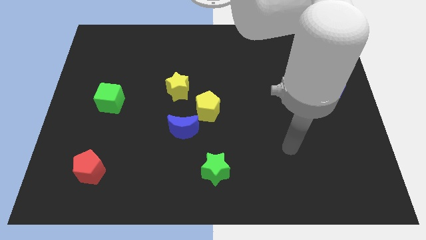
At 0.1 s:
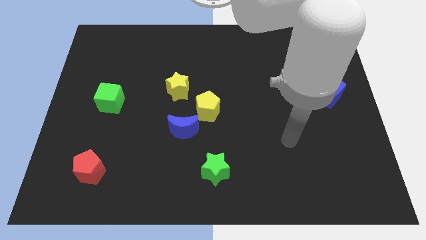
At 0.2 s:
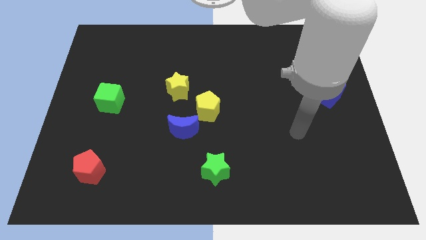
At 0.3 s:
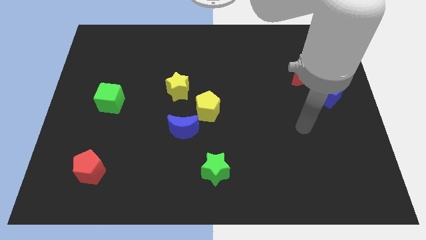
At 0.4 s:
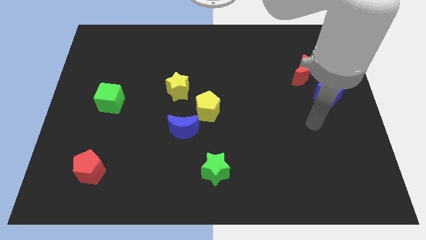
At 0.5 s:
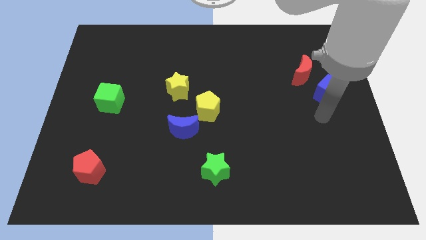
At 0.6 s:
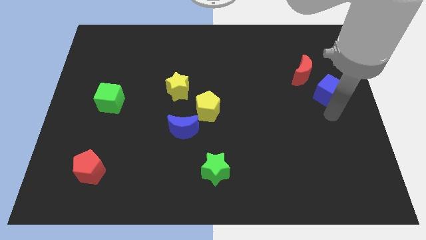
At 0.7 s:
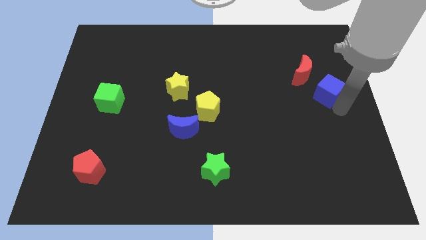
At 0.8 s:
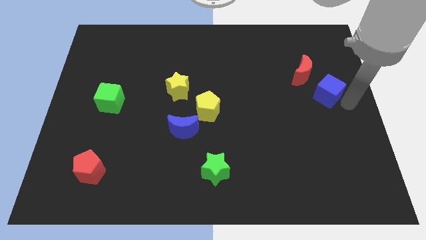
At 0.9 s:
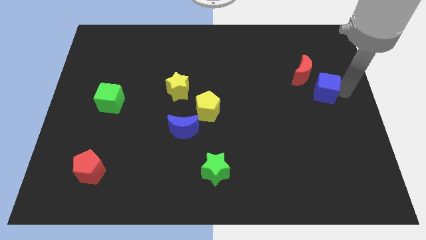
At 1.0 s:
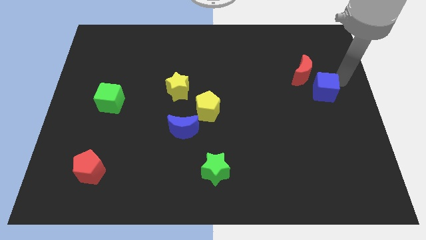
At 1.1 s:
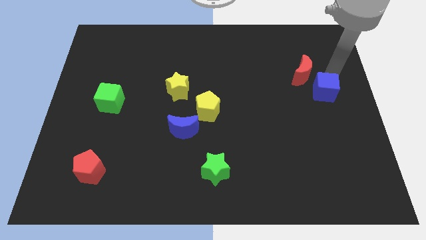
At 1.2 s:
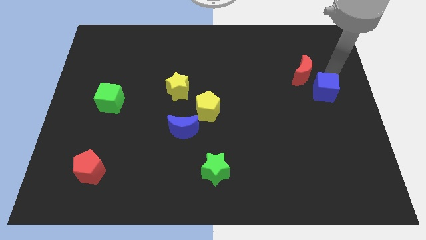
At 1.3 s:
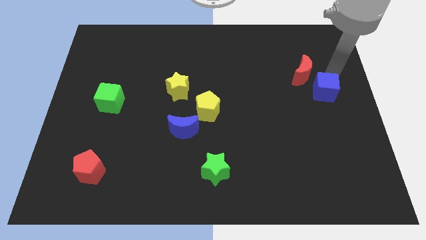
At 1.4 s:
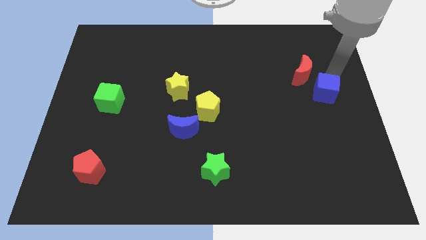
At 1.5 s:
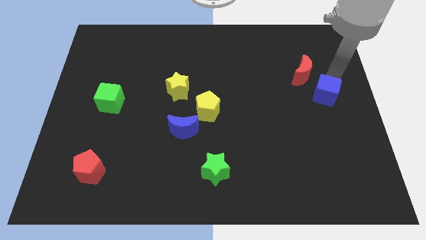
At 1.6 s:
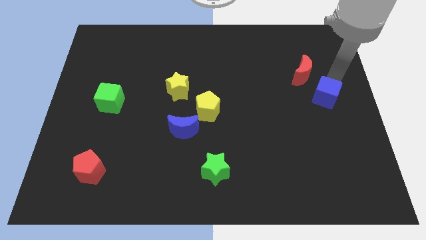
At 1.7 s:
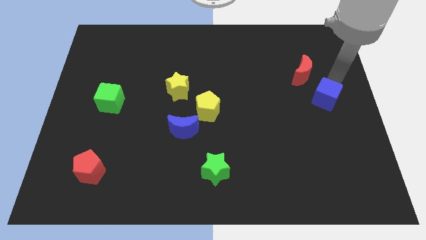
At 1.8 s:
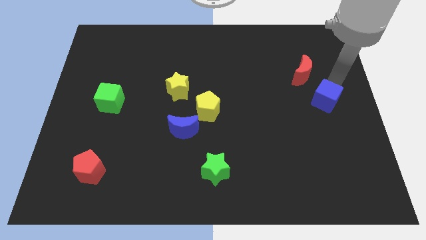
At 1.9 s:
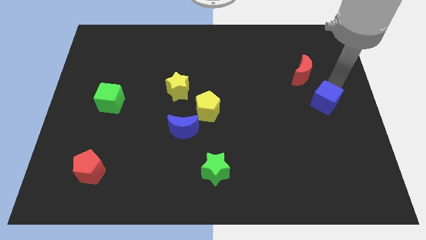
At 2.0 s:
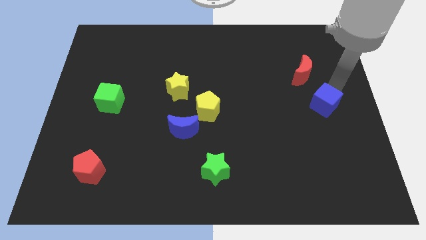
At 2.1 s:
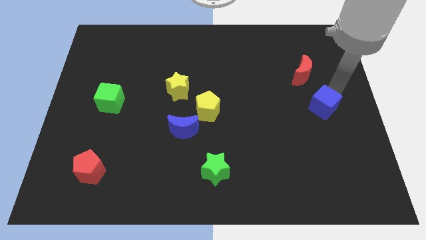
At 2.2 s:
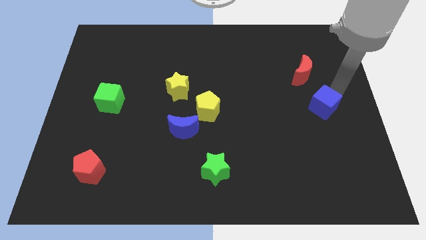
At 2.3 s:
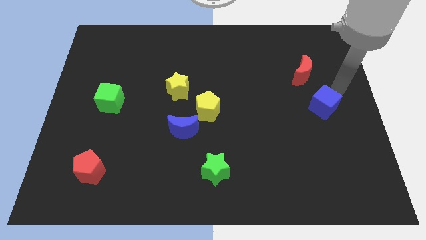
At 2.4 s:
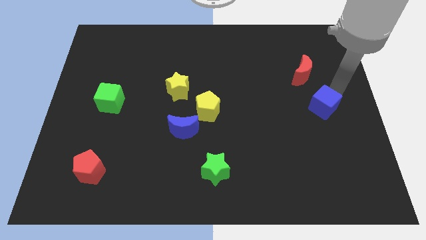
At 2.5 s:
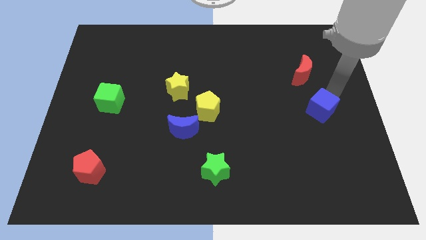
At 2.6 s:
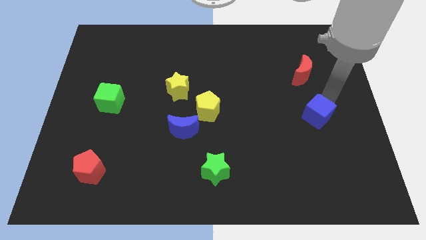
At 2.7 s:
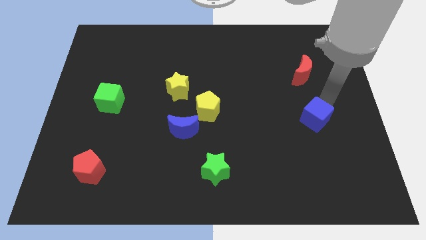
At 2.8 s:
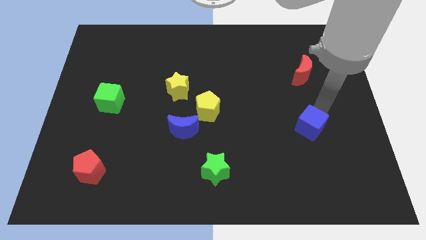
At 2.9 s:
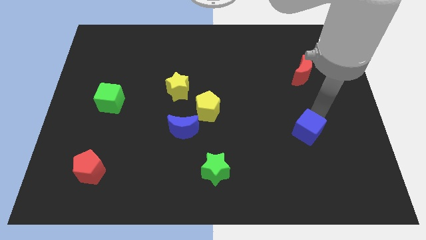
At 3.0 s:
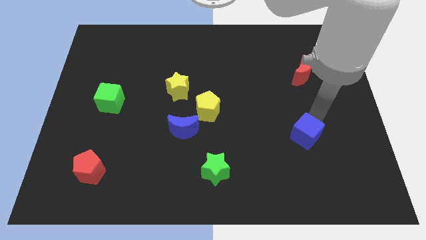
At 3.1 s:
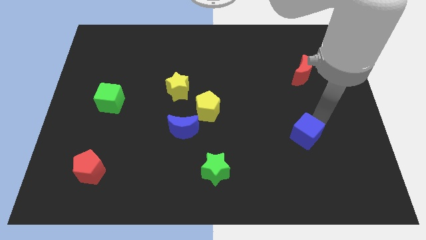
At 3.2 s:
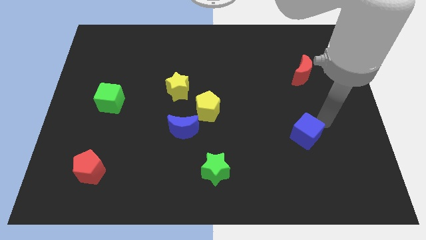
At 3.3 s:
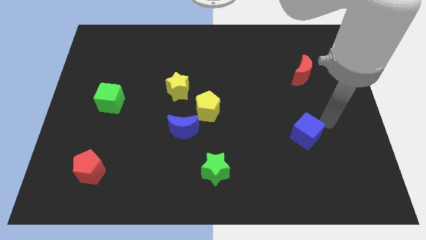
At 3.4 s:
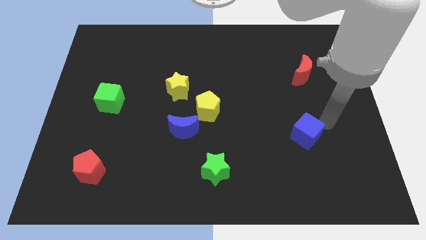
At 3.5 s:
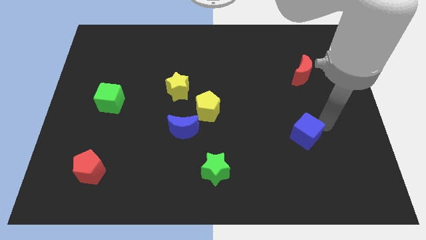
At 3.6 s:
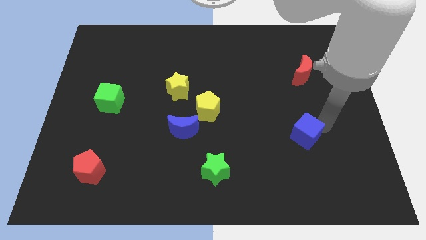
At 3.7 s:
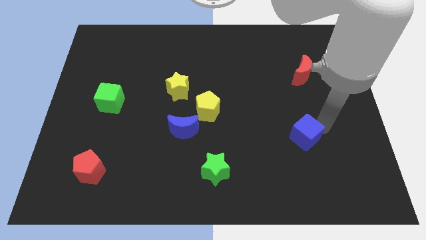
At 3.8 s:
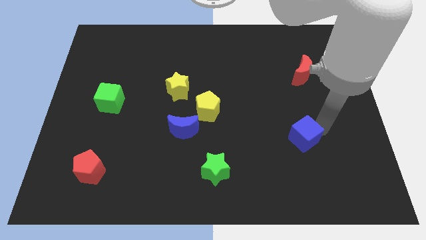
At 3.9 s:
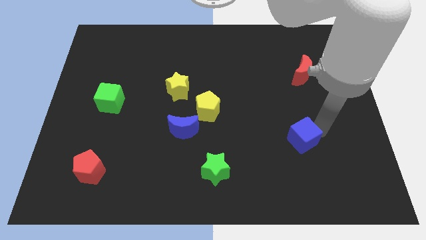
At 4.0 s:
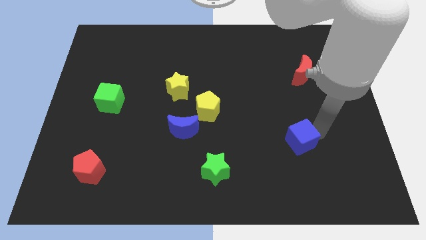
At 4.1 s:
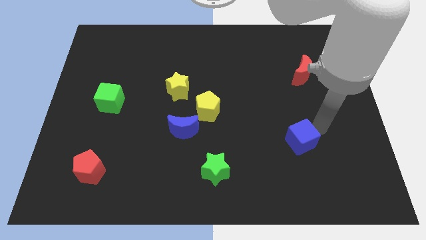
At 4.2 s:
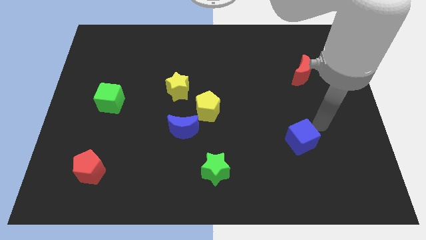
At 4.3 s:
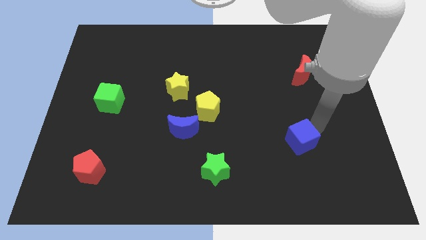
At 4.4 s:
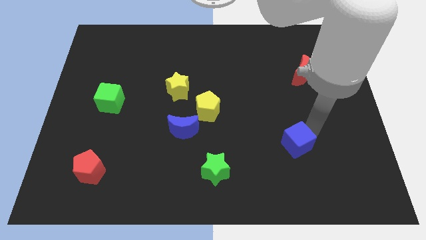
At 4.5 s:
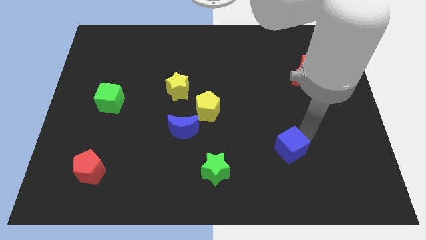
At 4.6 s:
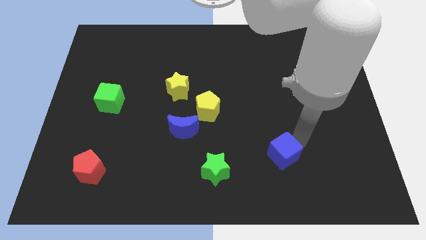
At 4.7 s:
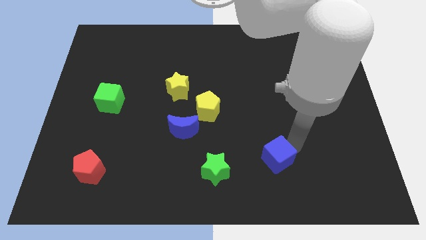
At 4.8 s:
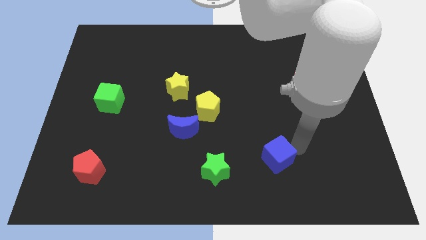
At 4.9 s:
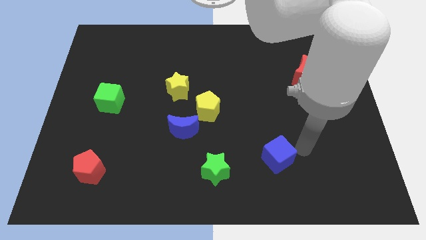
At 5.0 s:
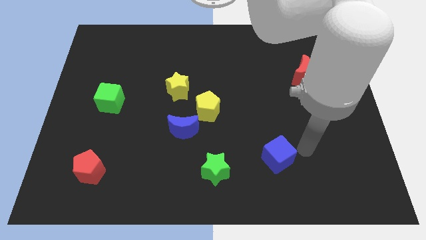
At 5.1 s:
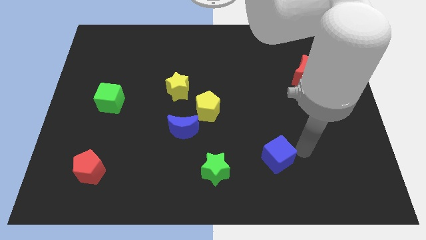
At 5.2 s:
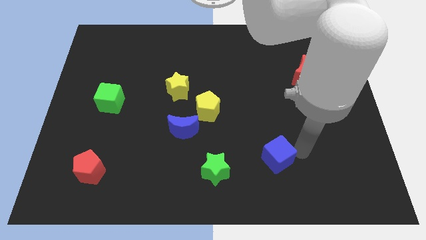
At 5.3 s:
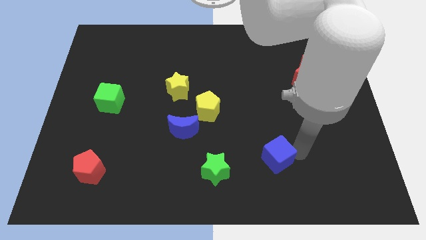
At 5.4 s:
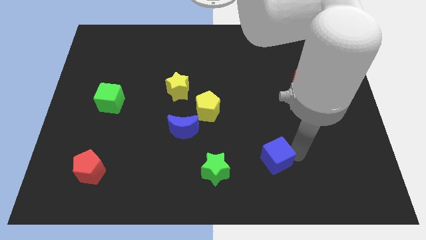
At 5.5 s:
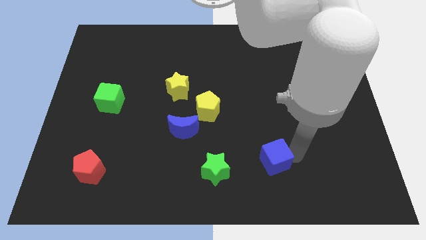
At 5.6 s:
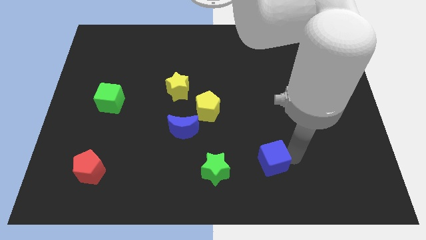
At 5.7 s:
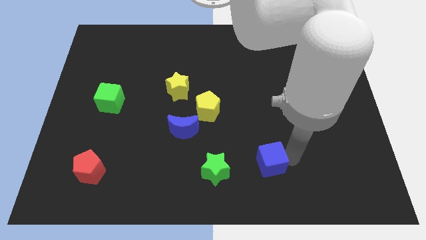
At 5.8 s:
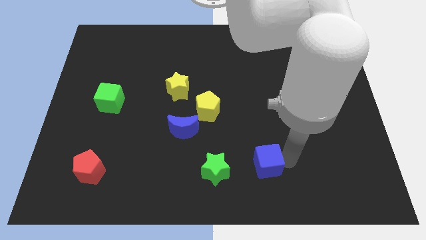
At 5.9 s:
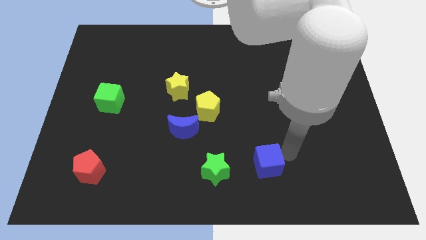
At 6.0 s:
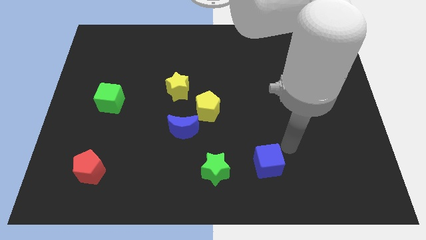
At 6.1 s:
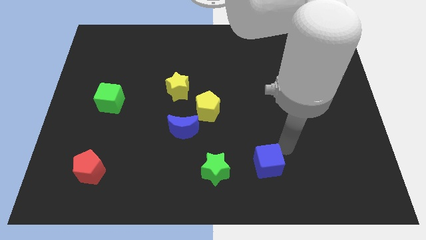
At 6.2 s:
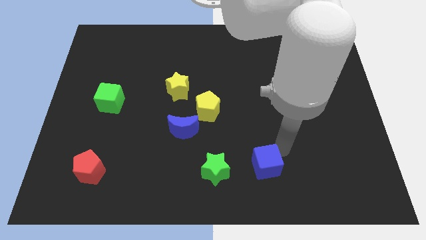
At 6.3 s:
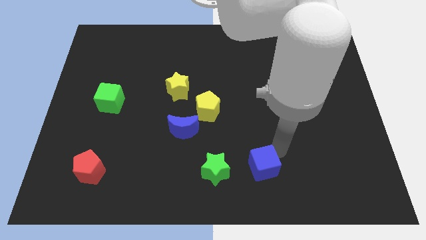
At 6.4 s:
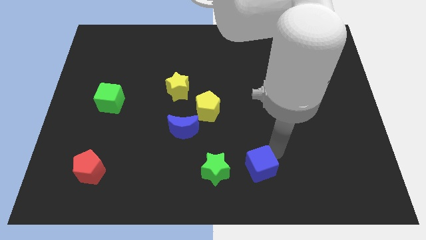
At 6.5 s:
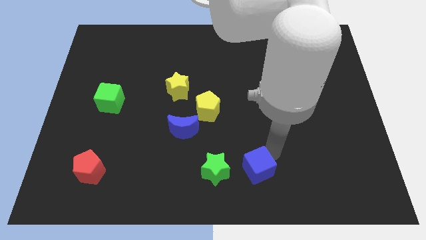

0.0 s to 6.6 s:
slide the blue cube to the bottom

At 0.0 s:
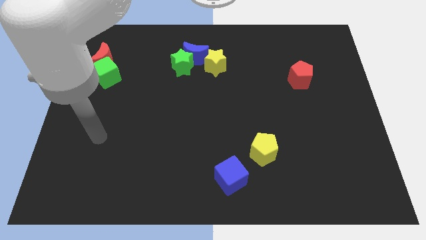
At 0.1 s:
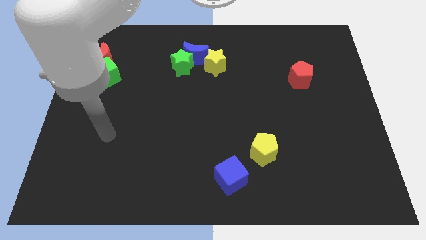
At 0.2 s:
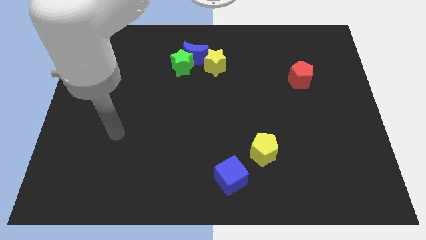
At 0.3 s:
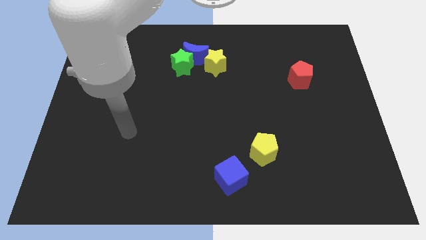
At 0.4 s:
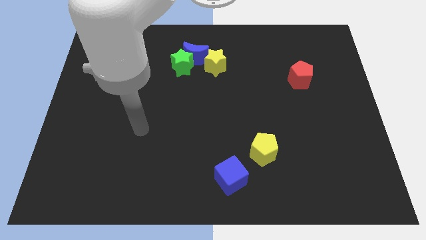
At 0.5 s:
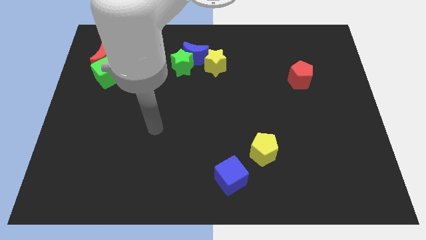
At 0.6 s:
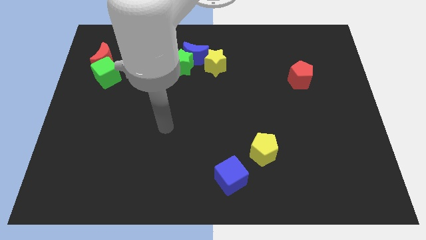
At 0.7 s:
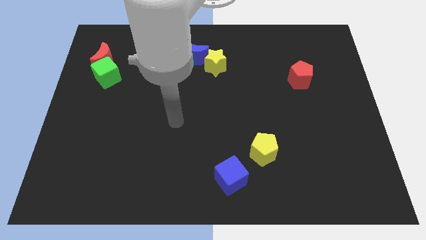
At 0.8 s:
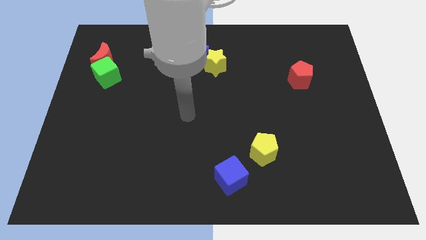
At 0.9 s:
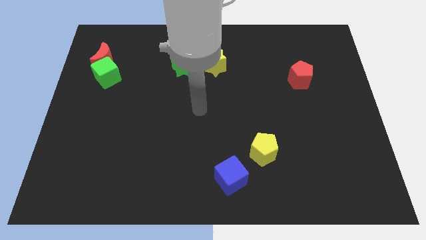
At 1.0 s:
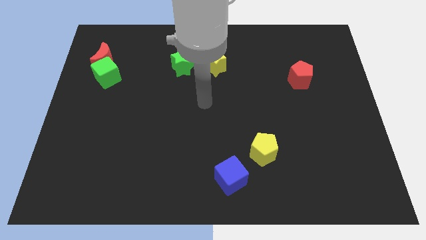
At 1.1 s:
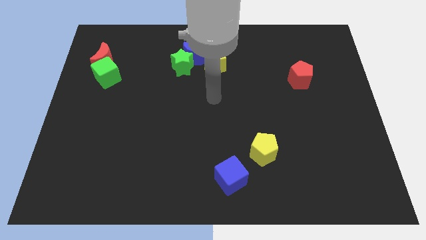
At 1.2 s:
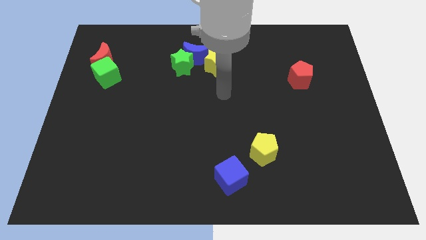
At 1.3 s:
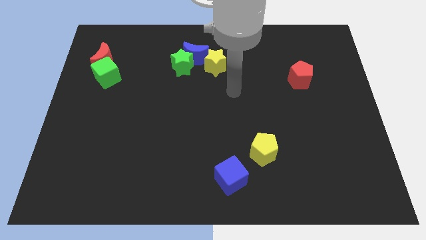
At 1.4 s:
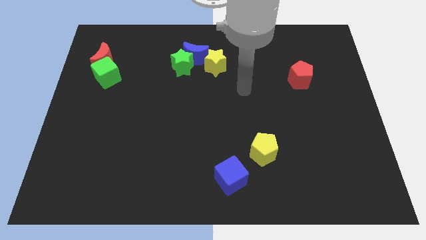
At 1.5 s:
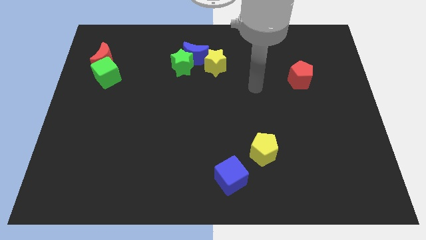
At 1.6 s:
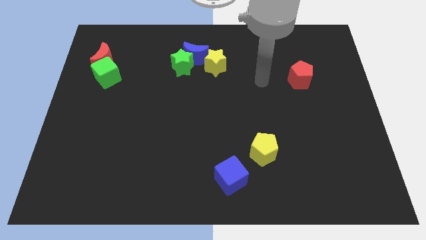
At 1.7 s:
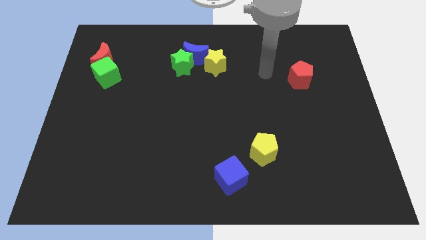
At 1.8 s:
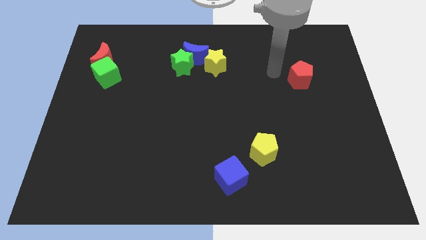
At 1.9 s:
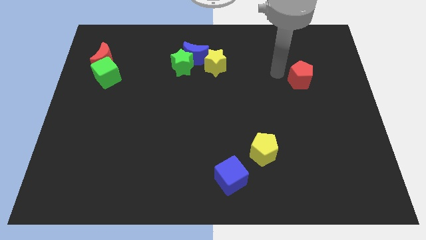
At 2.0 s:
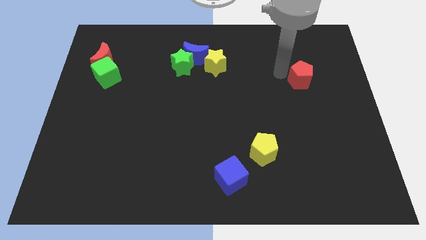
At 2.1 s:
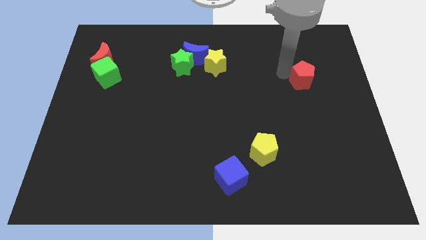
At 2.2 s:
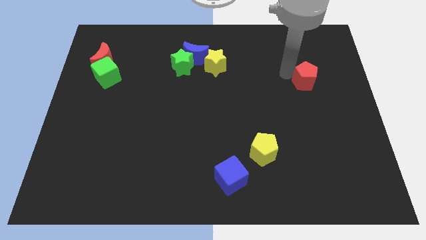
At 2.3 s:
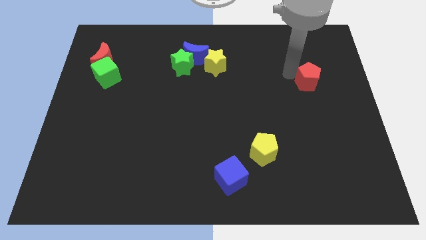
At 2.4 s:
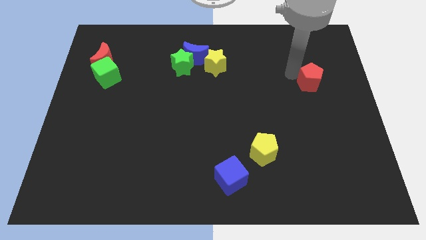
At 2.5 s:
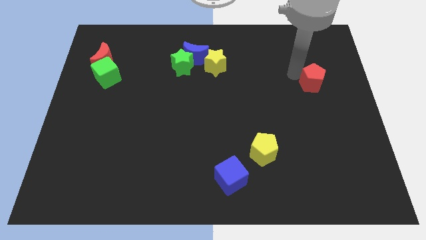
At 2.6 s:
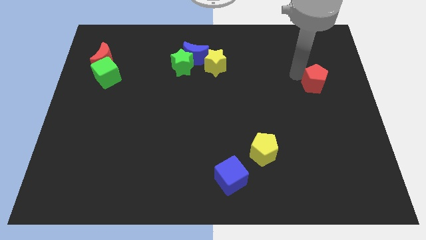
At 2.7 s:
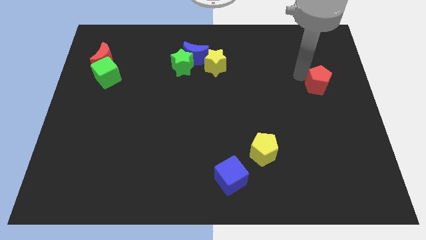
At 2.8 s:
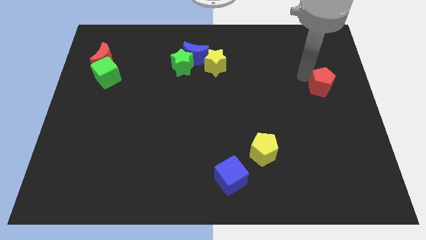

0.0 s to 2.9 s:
slide the red pentagon to the center right
